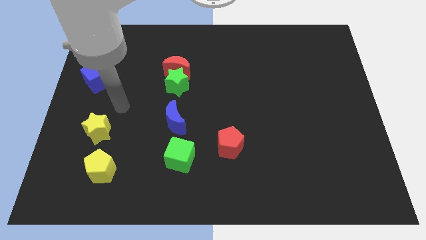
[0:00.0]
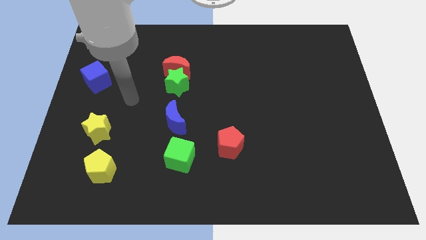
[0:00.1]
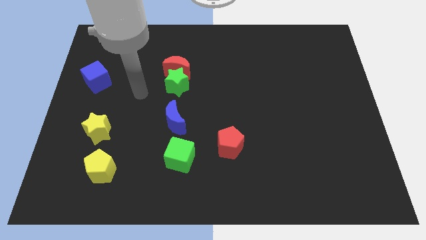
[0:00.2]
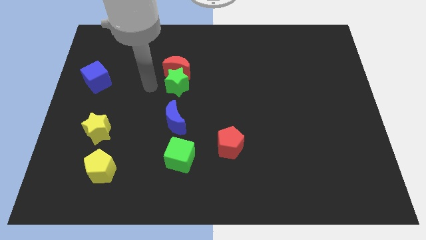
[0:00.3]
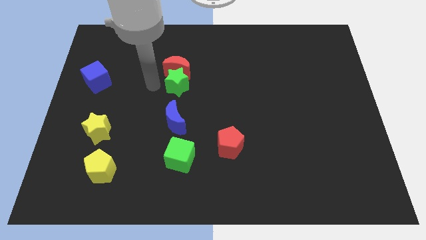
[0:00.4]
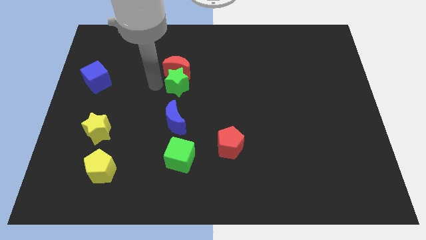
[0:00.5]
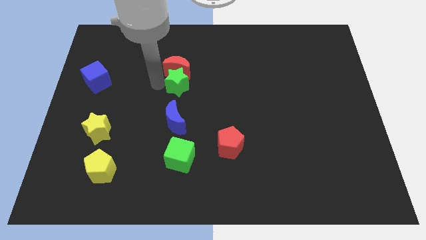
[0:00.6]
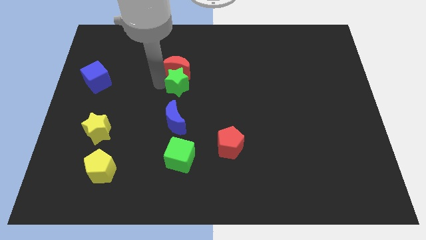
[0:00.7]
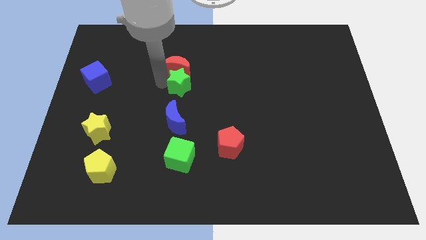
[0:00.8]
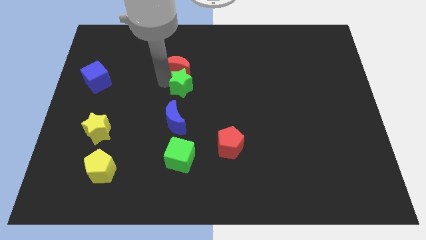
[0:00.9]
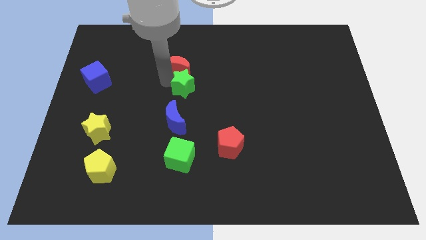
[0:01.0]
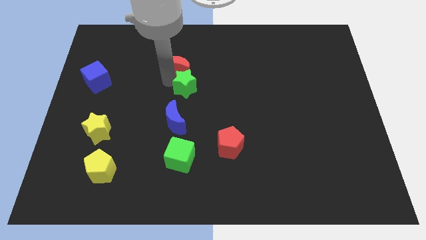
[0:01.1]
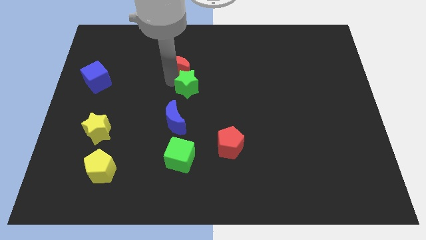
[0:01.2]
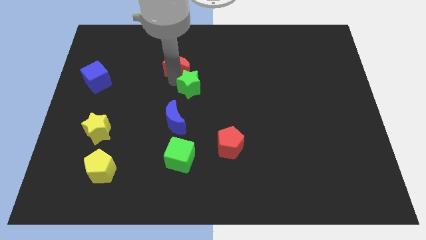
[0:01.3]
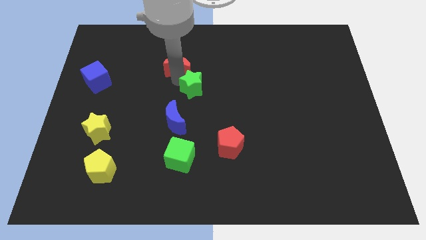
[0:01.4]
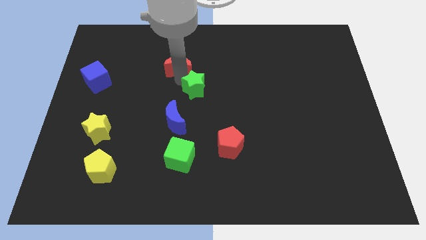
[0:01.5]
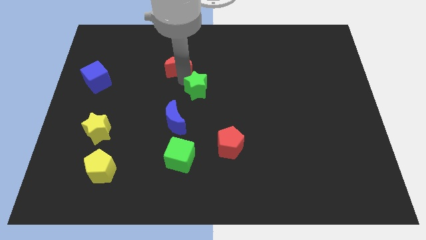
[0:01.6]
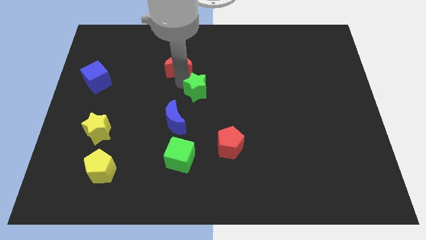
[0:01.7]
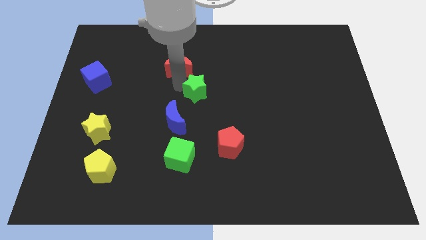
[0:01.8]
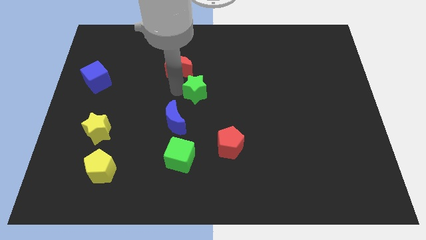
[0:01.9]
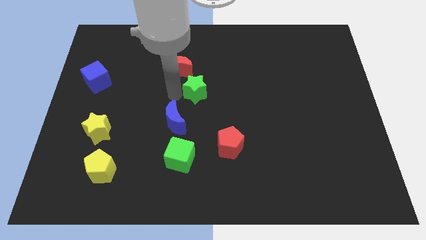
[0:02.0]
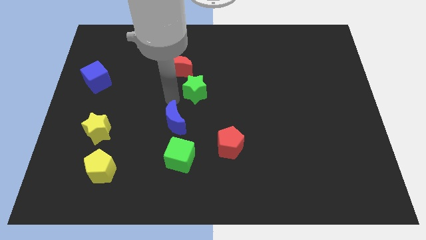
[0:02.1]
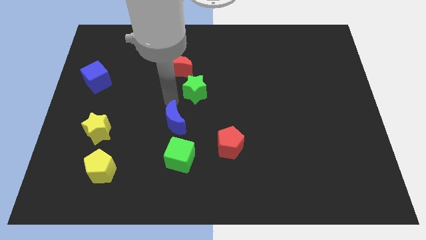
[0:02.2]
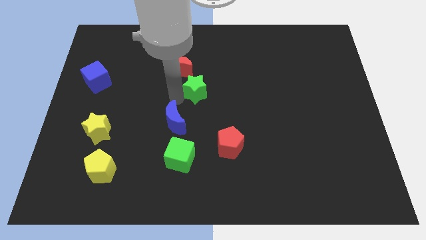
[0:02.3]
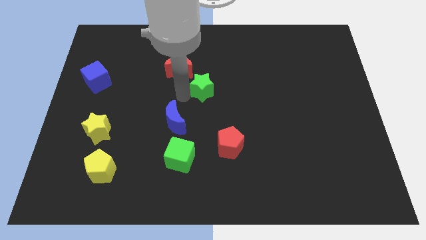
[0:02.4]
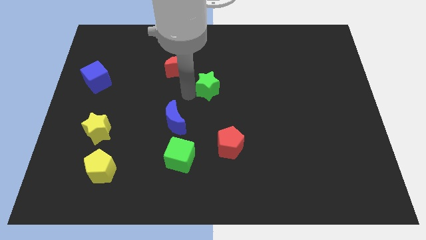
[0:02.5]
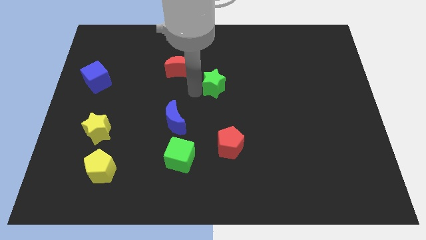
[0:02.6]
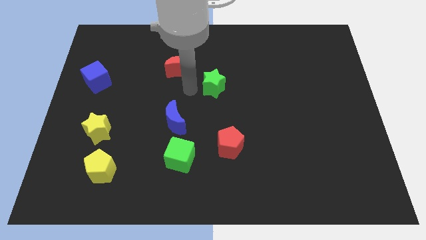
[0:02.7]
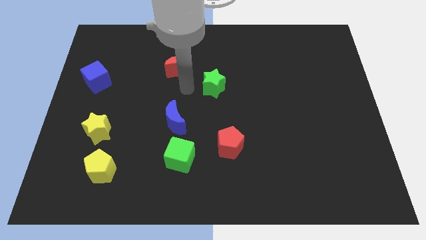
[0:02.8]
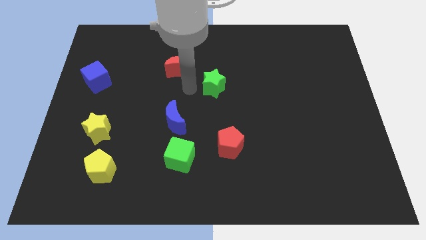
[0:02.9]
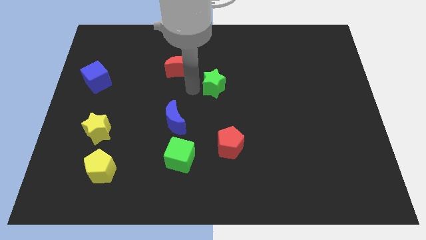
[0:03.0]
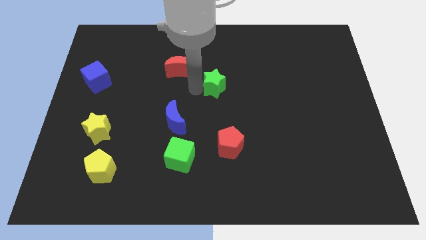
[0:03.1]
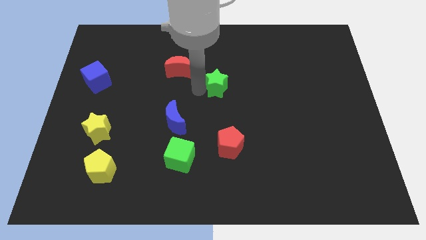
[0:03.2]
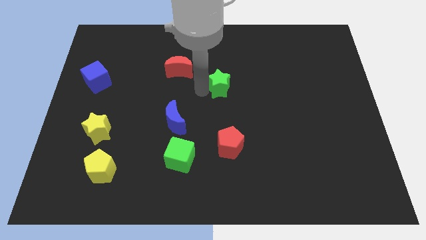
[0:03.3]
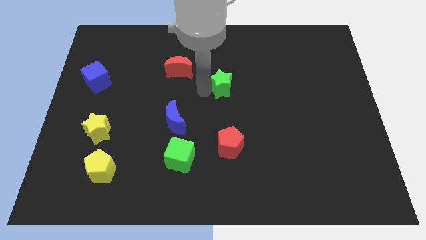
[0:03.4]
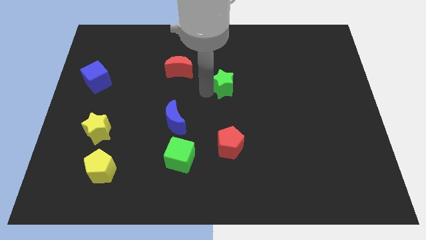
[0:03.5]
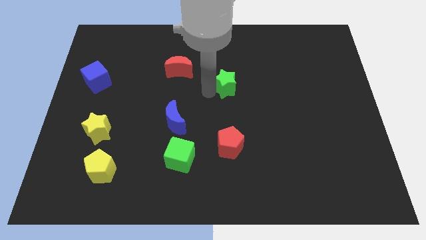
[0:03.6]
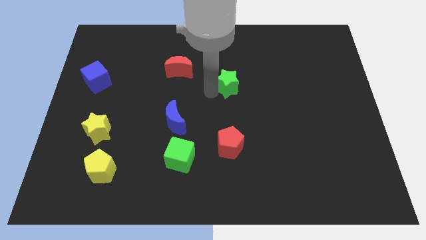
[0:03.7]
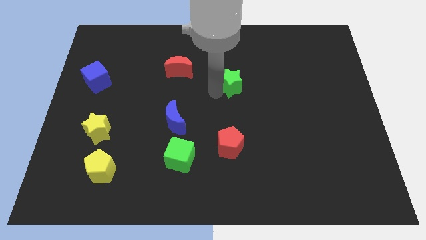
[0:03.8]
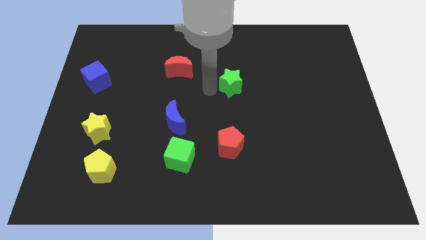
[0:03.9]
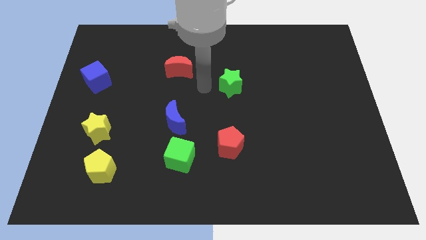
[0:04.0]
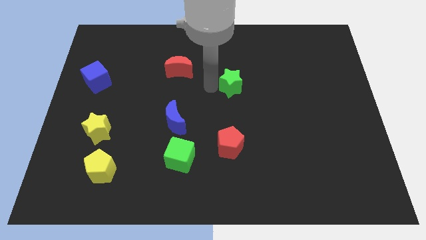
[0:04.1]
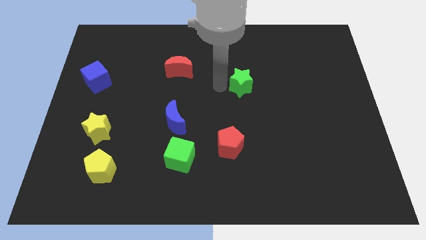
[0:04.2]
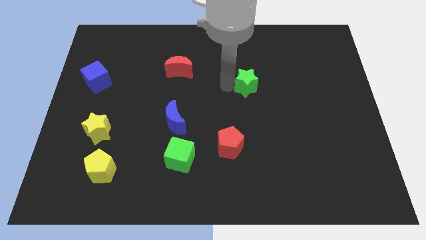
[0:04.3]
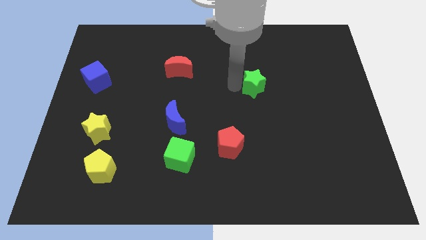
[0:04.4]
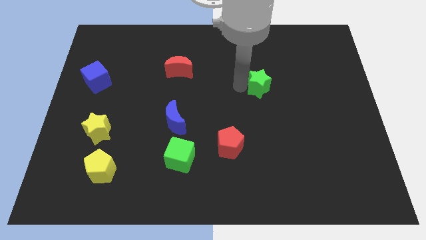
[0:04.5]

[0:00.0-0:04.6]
push the green star to the right

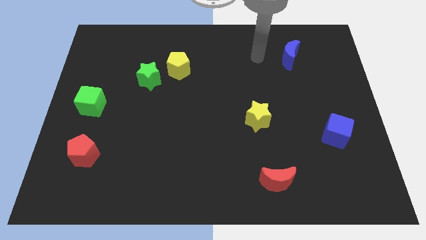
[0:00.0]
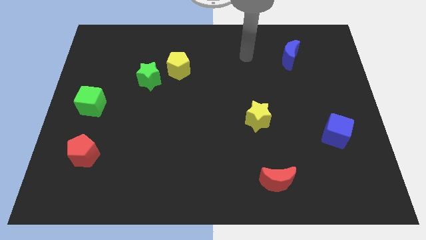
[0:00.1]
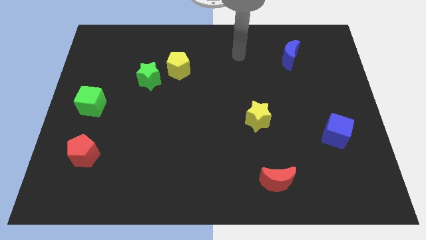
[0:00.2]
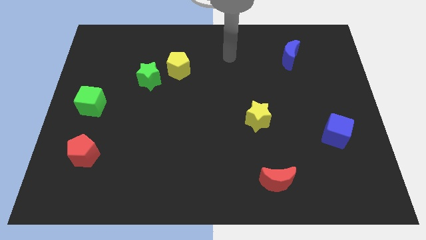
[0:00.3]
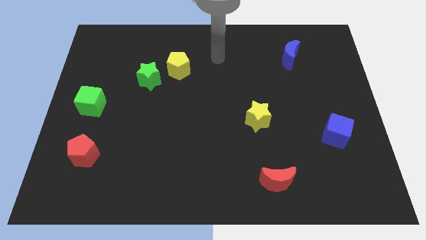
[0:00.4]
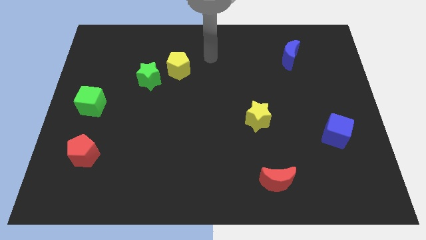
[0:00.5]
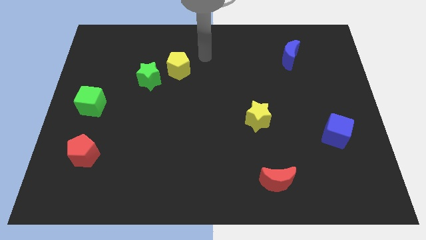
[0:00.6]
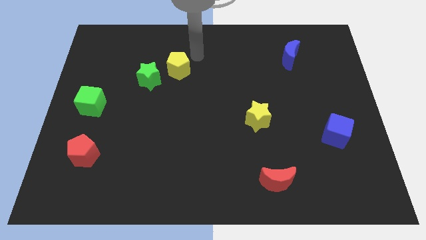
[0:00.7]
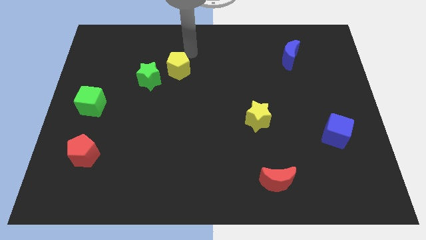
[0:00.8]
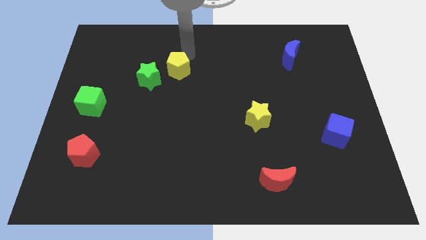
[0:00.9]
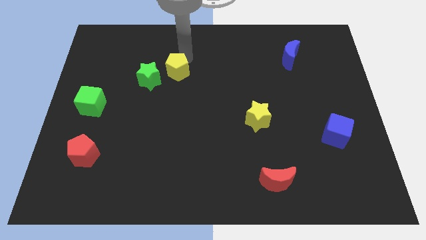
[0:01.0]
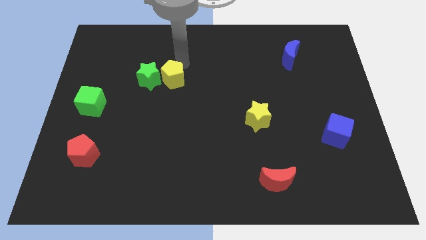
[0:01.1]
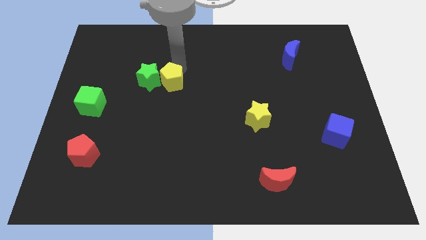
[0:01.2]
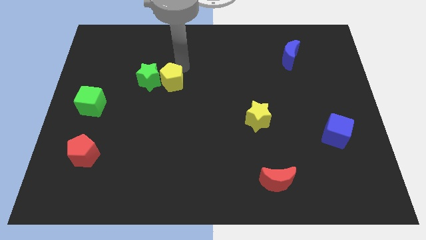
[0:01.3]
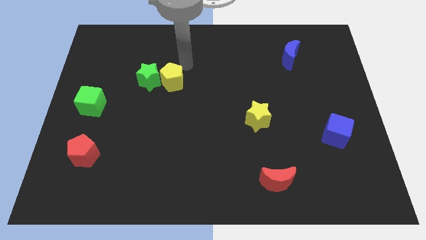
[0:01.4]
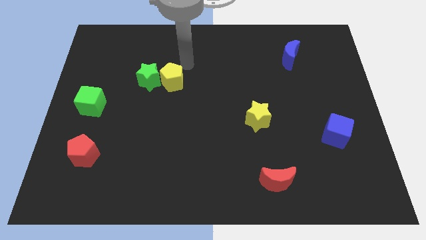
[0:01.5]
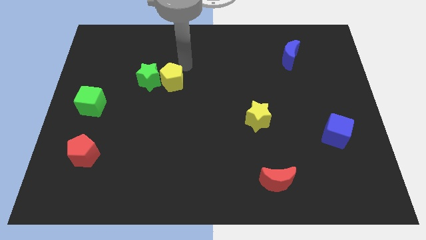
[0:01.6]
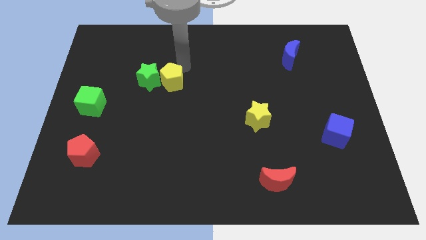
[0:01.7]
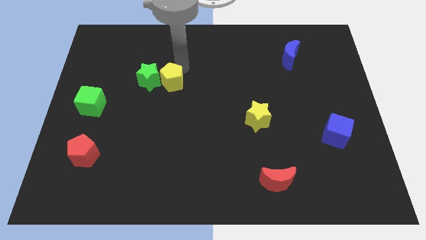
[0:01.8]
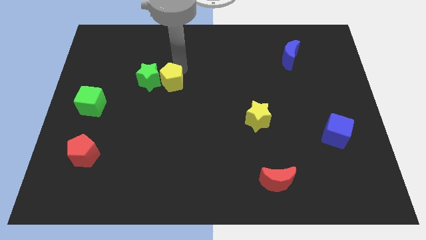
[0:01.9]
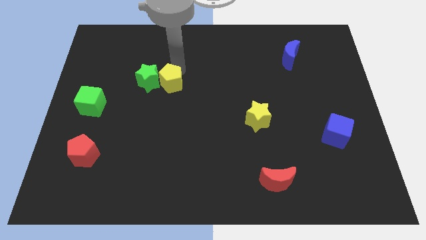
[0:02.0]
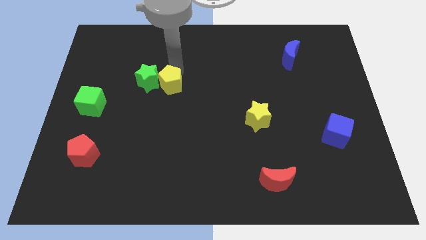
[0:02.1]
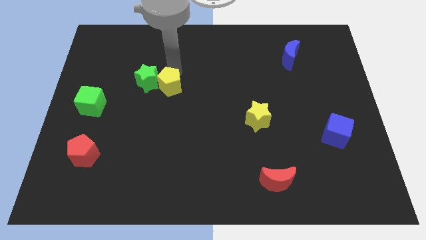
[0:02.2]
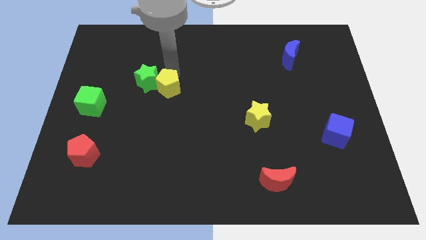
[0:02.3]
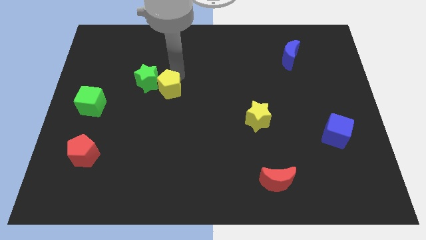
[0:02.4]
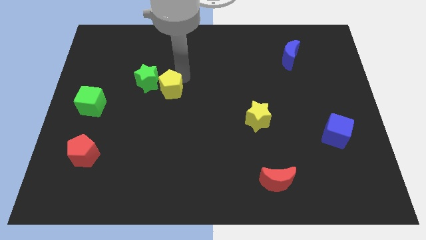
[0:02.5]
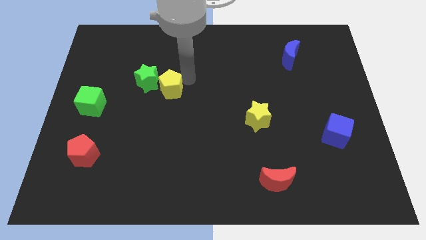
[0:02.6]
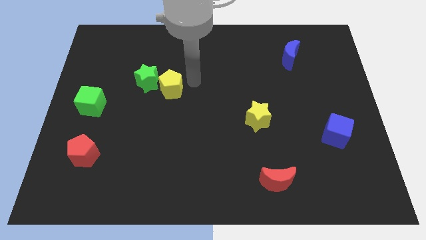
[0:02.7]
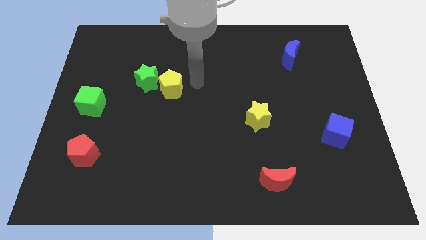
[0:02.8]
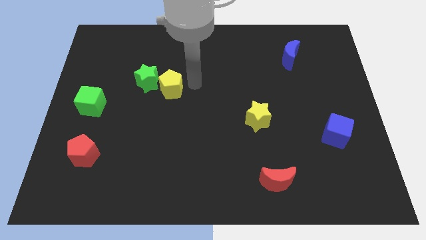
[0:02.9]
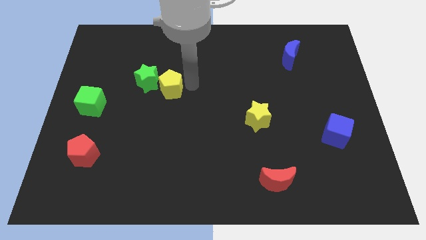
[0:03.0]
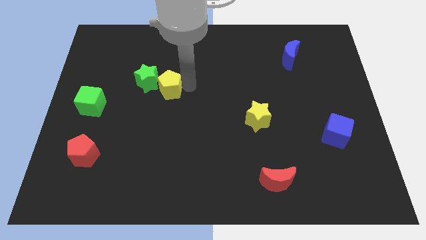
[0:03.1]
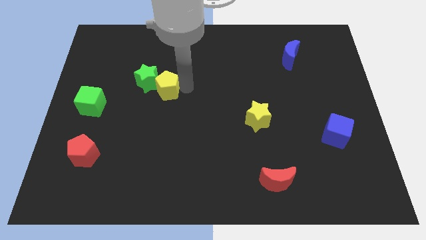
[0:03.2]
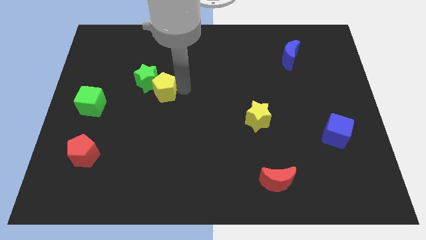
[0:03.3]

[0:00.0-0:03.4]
move the yellow pentagon down and left a little bit

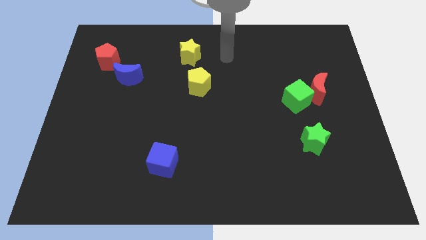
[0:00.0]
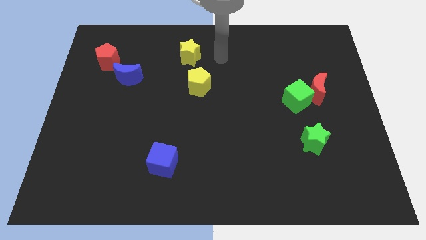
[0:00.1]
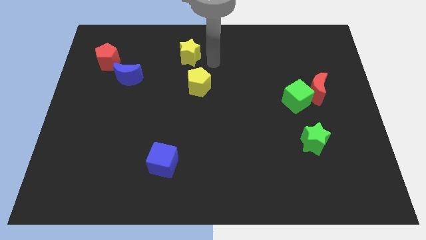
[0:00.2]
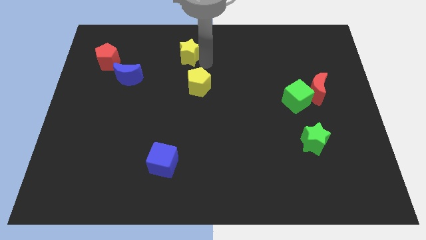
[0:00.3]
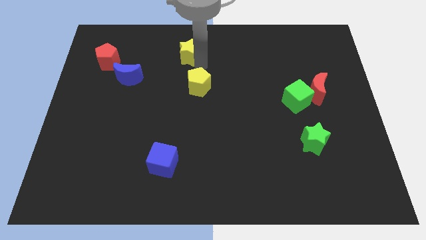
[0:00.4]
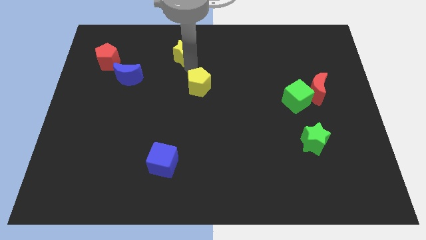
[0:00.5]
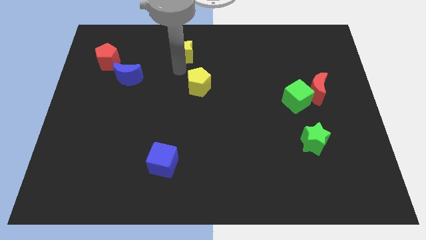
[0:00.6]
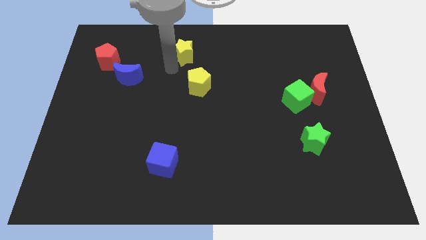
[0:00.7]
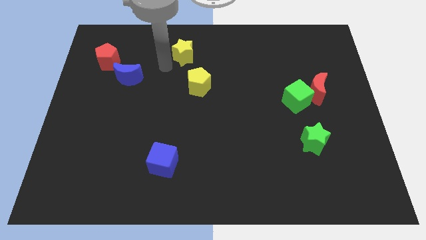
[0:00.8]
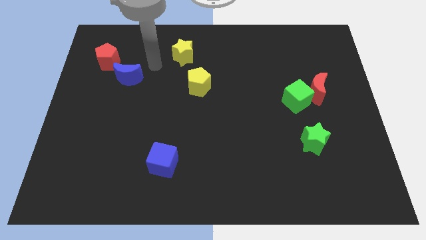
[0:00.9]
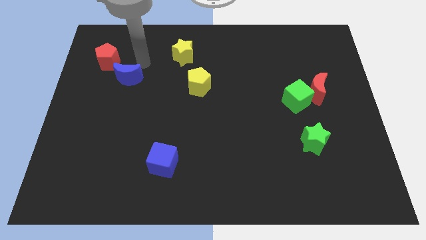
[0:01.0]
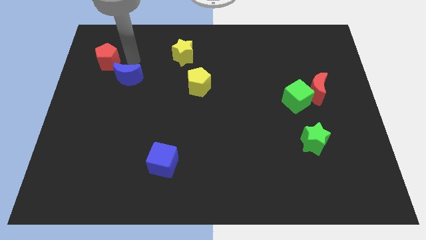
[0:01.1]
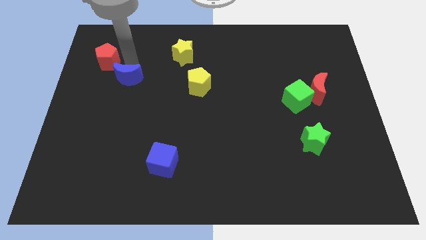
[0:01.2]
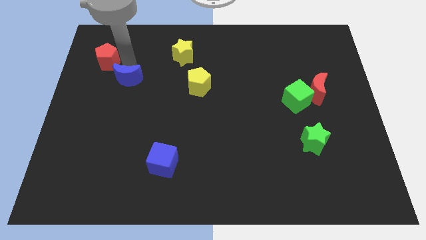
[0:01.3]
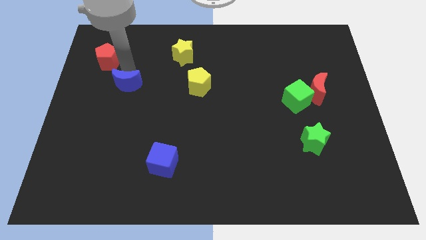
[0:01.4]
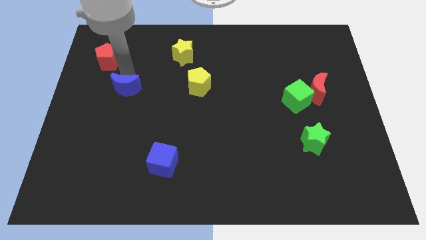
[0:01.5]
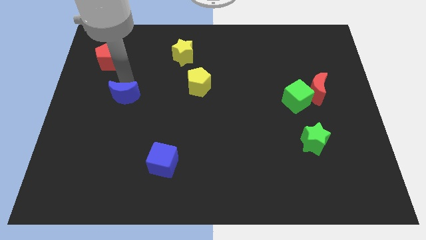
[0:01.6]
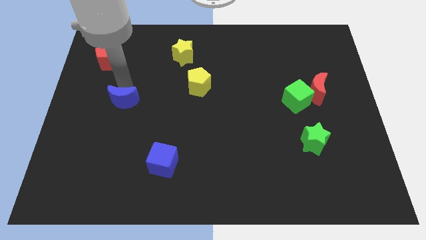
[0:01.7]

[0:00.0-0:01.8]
push the blue moon a little bit downwards
